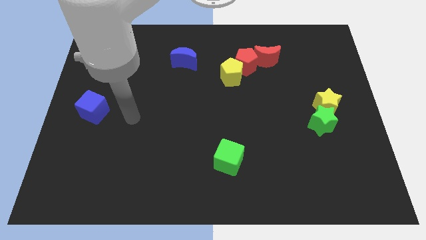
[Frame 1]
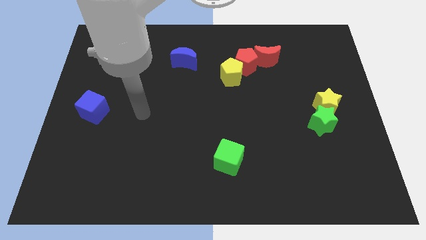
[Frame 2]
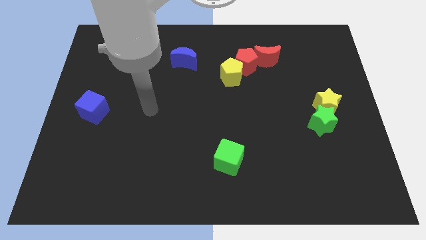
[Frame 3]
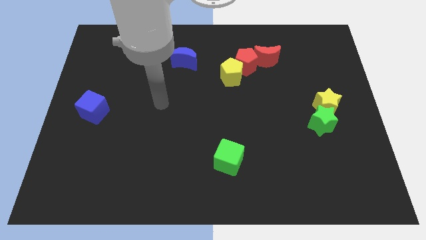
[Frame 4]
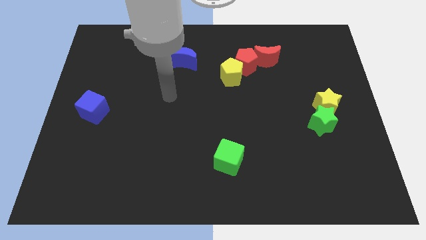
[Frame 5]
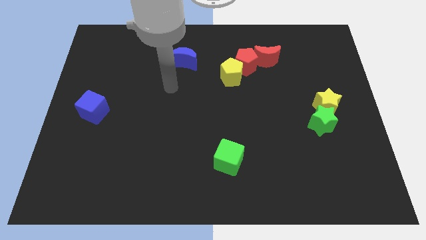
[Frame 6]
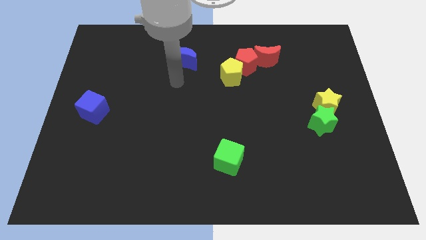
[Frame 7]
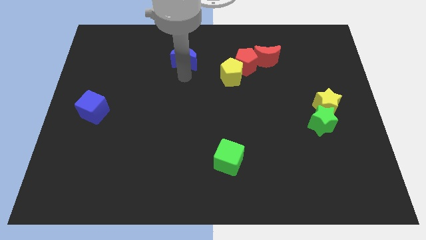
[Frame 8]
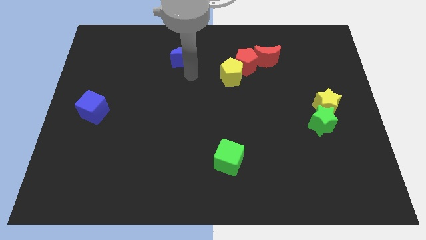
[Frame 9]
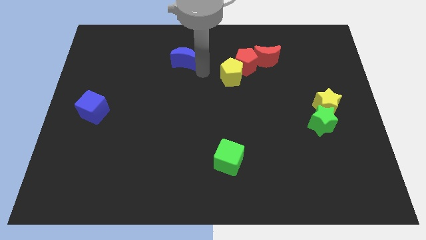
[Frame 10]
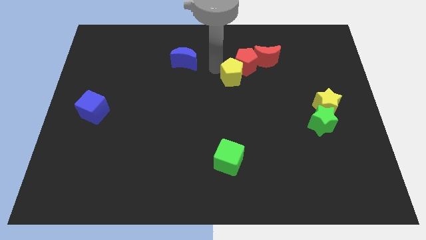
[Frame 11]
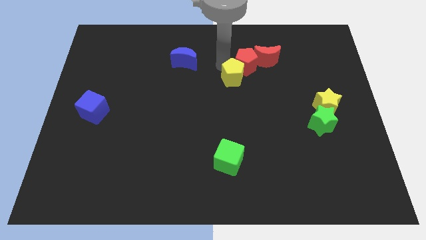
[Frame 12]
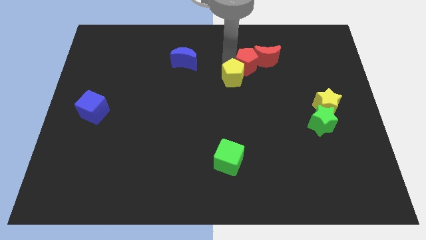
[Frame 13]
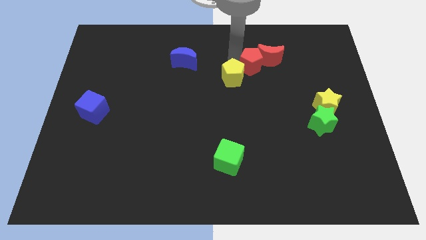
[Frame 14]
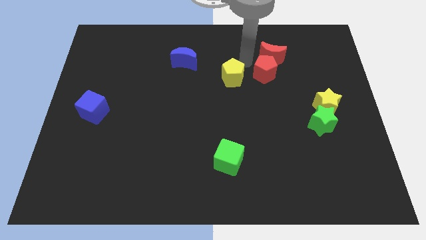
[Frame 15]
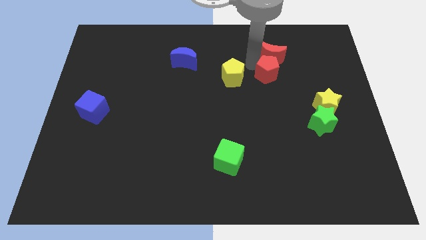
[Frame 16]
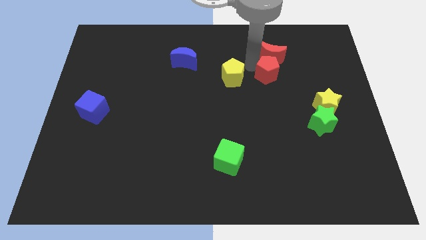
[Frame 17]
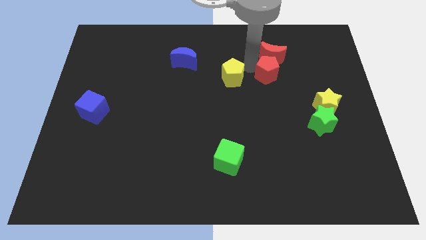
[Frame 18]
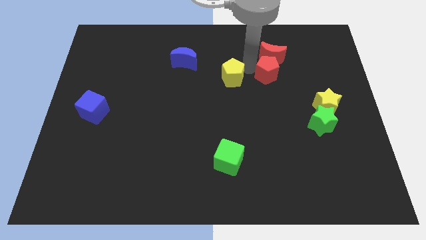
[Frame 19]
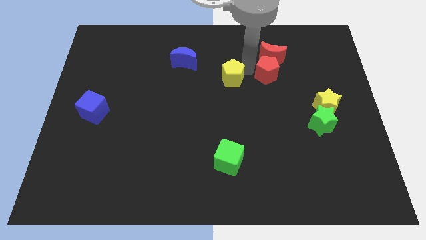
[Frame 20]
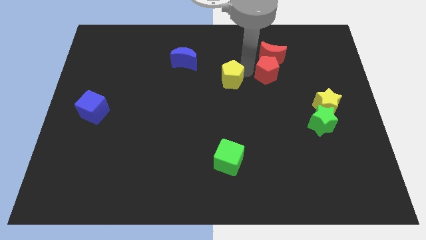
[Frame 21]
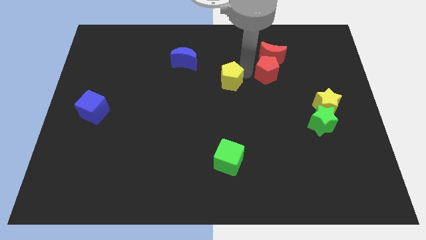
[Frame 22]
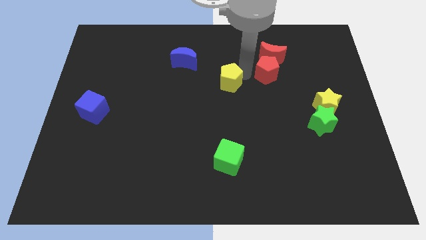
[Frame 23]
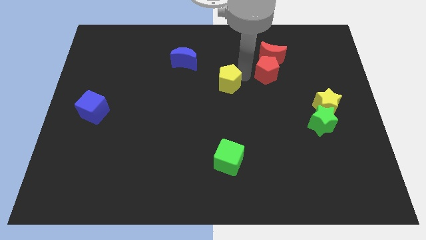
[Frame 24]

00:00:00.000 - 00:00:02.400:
pull the yellow pentagon apart from the red pentagon

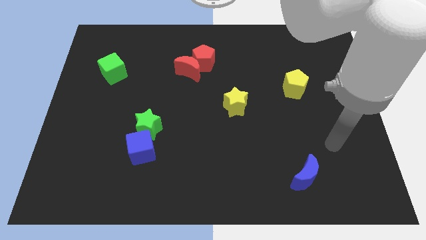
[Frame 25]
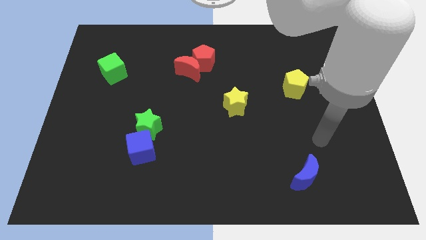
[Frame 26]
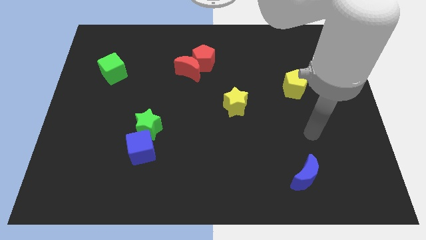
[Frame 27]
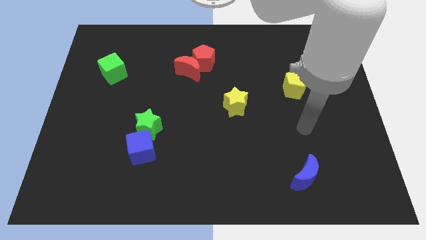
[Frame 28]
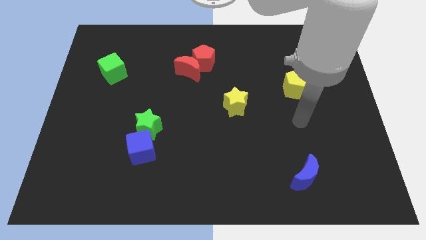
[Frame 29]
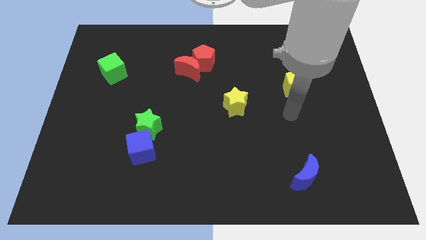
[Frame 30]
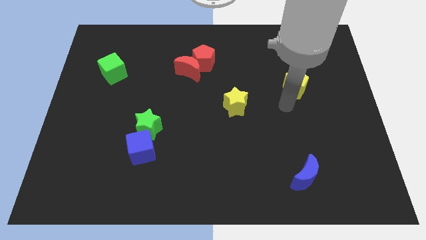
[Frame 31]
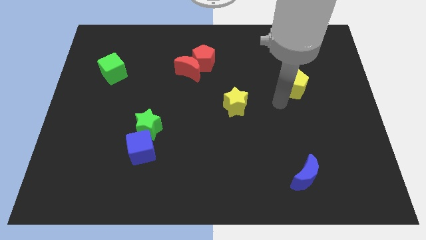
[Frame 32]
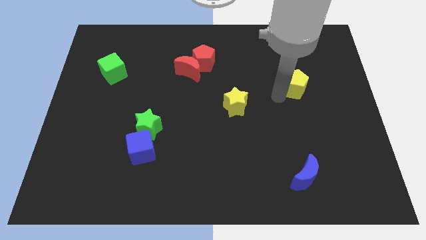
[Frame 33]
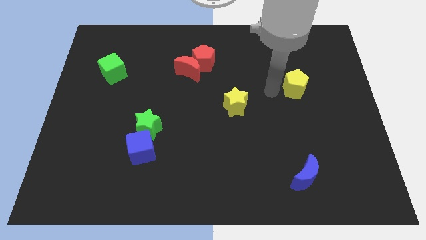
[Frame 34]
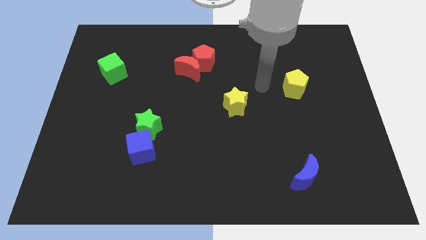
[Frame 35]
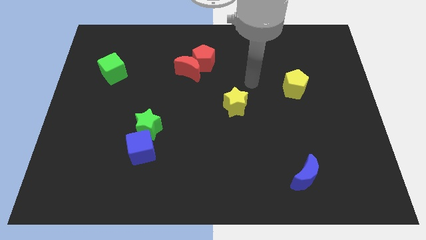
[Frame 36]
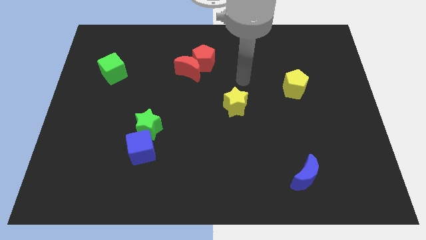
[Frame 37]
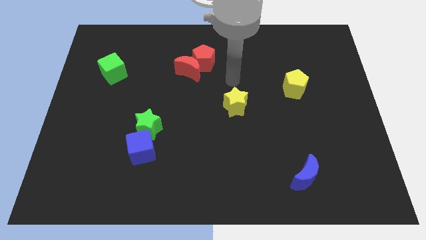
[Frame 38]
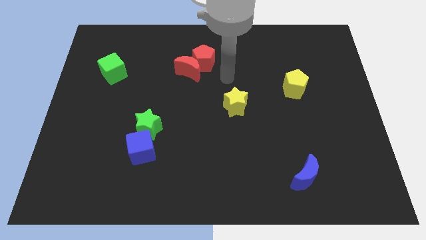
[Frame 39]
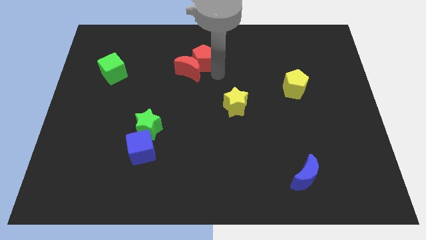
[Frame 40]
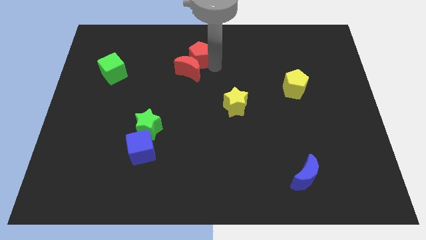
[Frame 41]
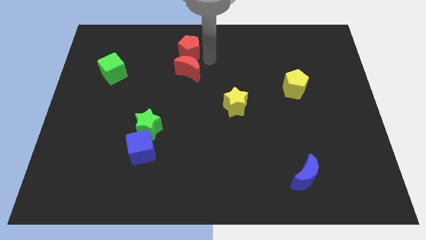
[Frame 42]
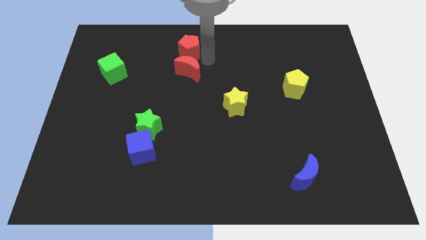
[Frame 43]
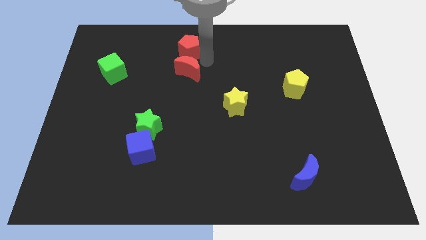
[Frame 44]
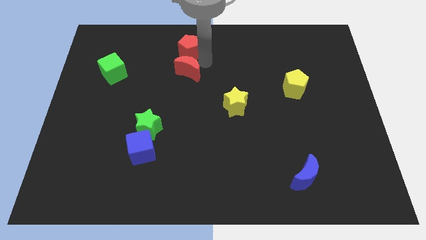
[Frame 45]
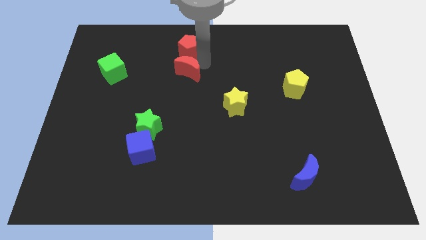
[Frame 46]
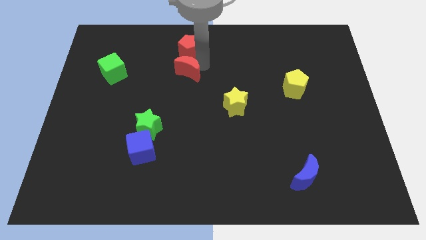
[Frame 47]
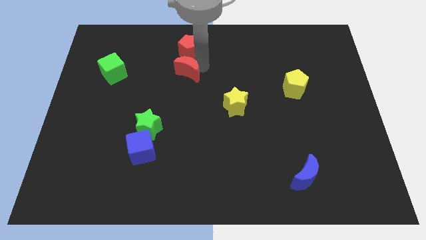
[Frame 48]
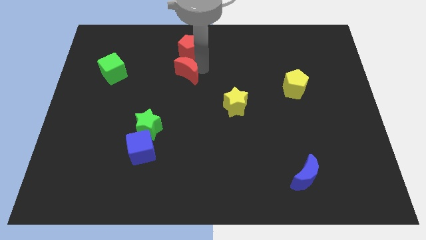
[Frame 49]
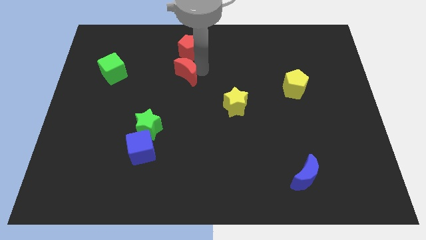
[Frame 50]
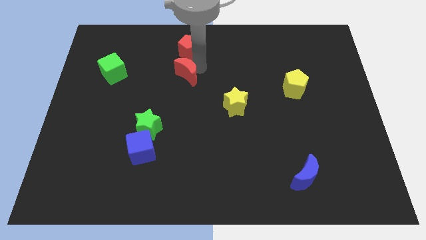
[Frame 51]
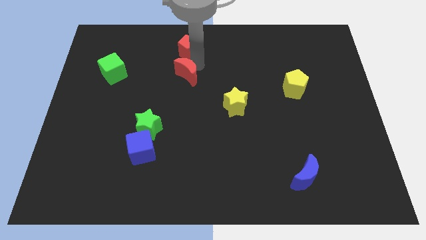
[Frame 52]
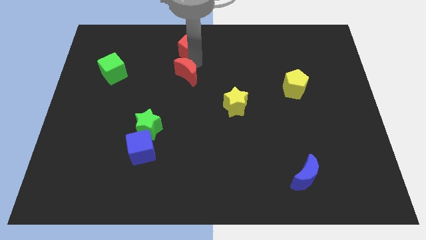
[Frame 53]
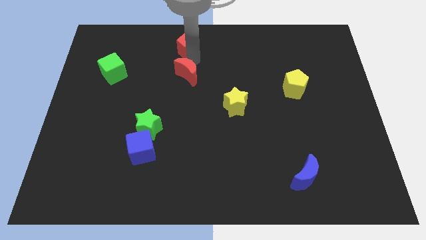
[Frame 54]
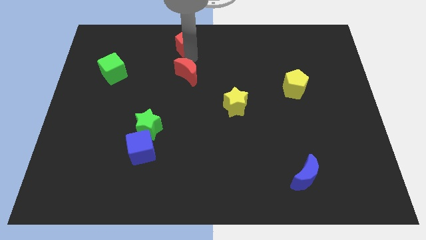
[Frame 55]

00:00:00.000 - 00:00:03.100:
separate the red moon from the red pentagon

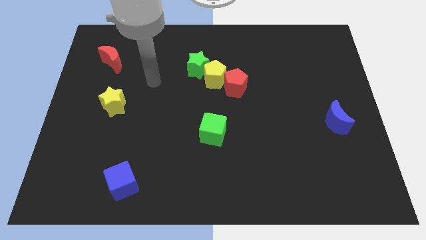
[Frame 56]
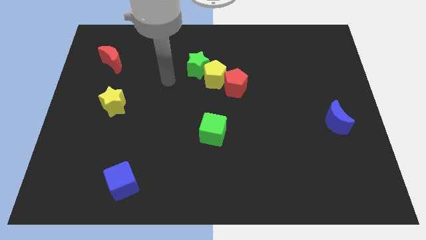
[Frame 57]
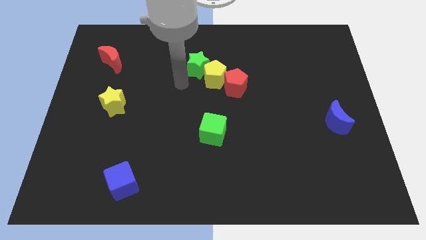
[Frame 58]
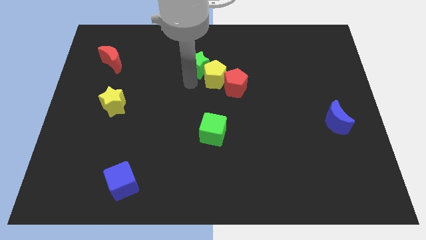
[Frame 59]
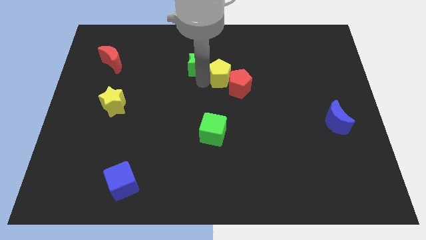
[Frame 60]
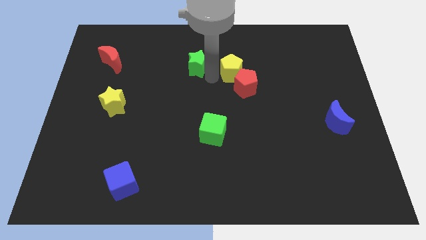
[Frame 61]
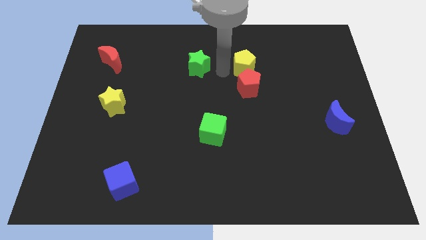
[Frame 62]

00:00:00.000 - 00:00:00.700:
move the green star away from the yellow pentagon

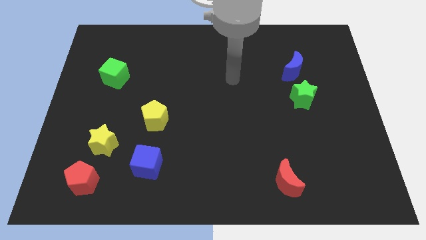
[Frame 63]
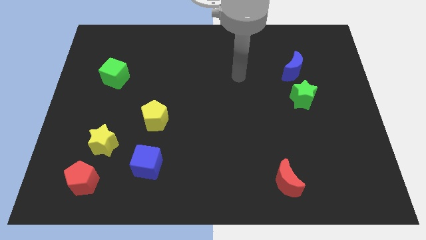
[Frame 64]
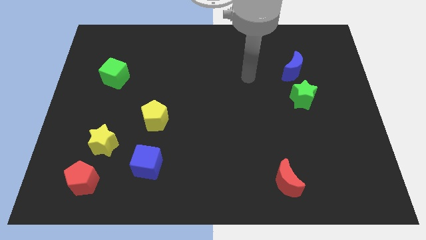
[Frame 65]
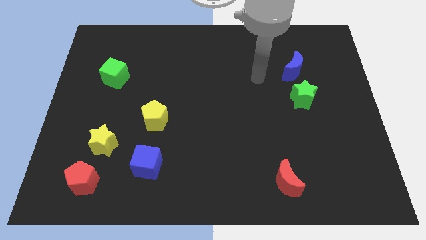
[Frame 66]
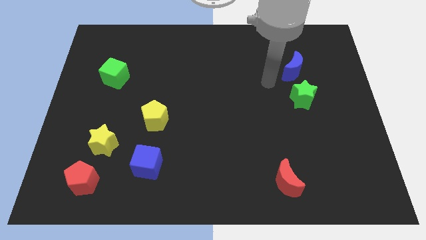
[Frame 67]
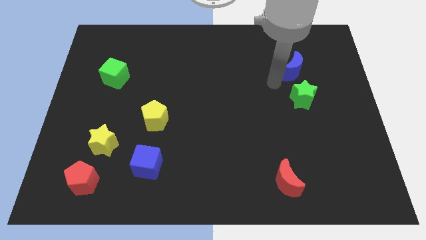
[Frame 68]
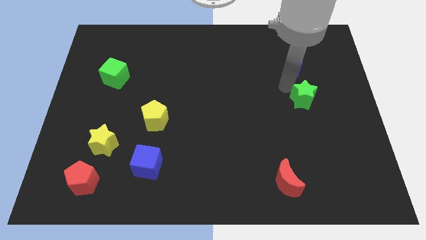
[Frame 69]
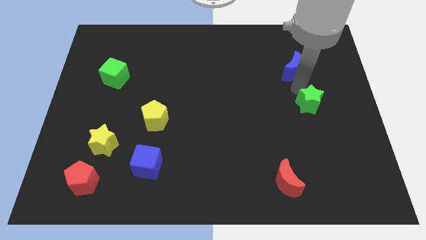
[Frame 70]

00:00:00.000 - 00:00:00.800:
pull the blue moon apart from the green star

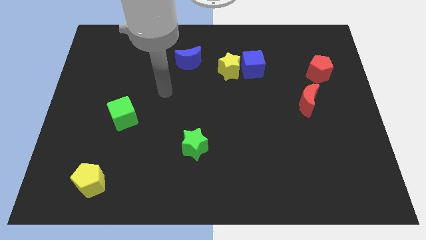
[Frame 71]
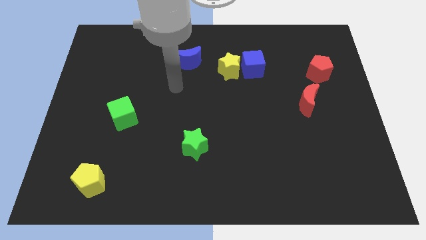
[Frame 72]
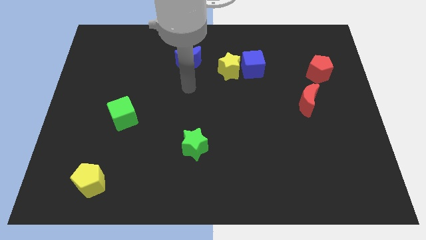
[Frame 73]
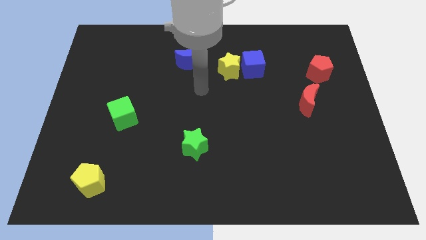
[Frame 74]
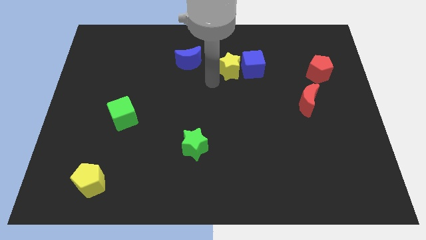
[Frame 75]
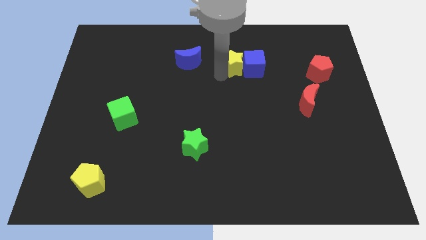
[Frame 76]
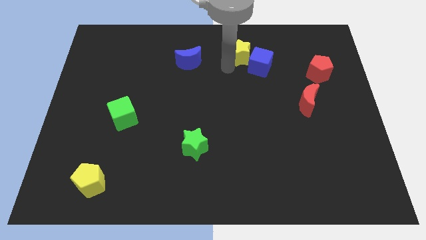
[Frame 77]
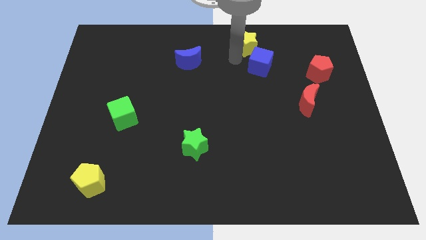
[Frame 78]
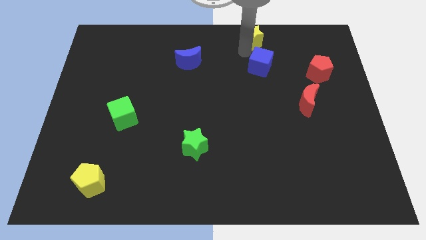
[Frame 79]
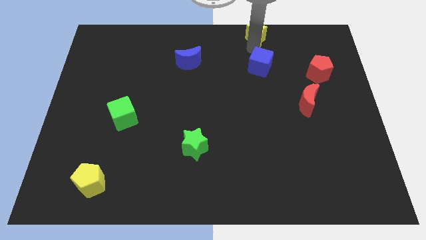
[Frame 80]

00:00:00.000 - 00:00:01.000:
pull the blue cube apart from the yellow star

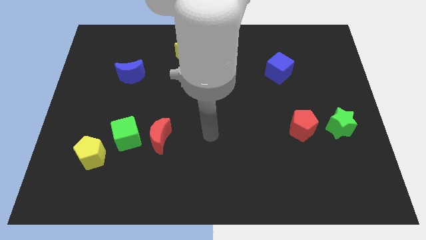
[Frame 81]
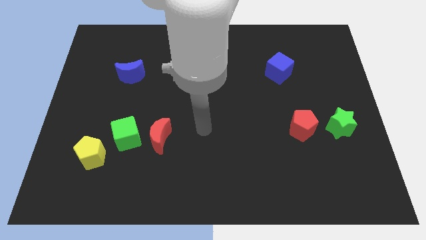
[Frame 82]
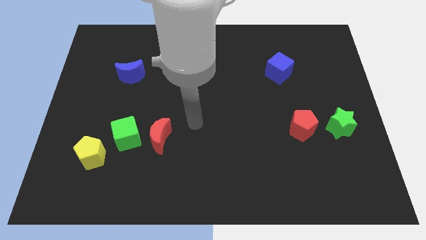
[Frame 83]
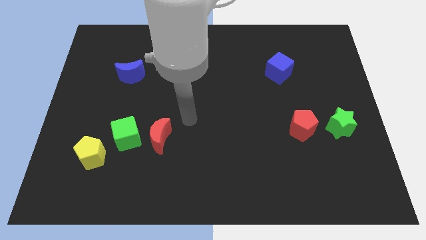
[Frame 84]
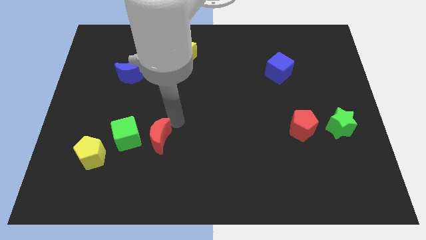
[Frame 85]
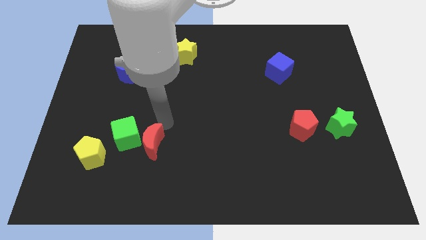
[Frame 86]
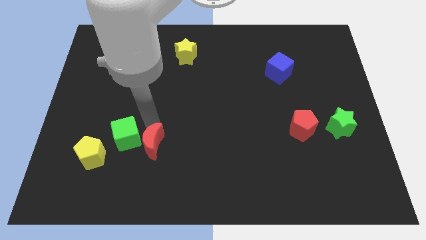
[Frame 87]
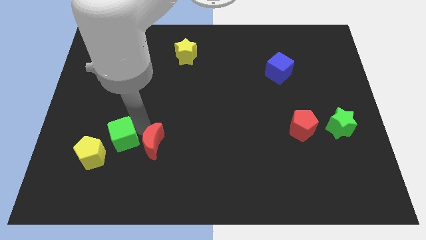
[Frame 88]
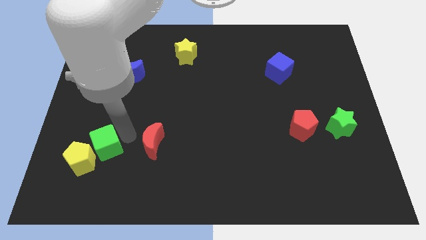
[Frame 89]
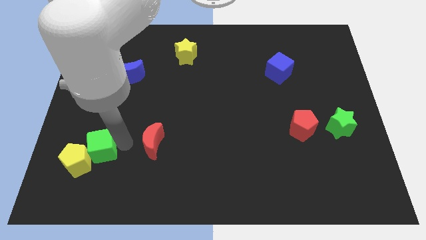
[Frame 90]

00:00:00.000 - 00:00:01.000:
pull the red moon apart from the green cube

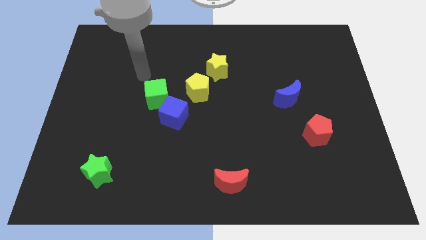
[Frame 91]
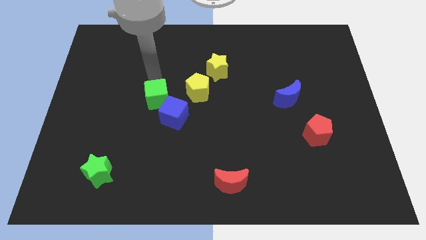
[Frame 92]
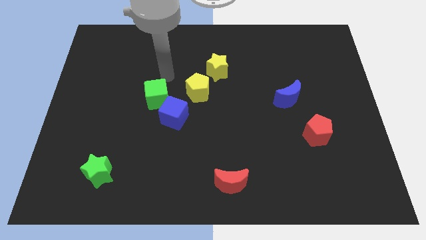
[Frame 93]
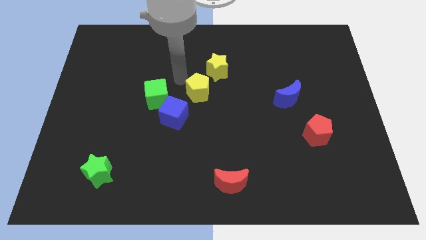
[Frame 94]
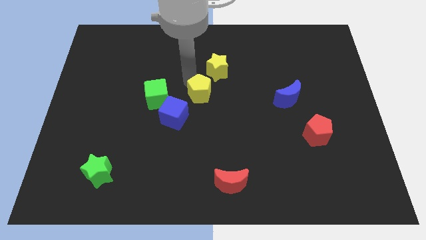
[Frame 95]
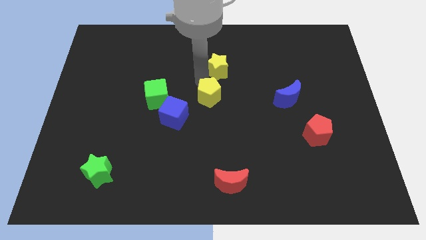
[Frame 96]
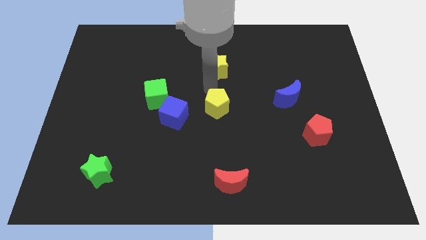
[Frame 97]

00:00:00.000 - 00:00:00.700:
move the yellow star away from the yellow pentagon
